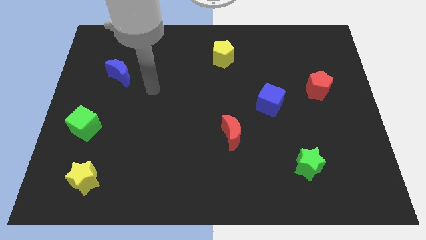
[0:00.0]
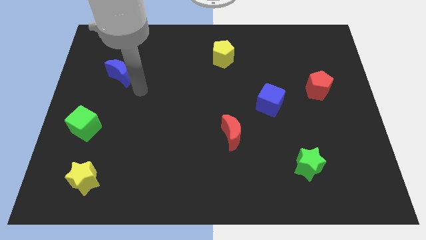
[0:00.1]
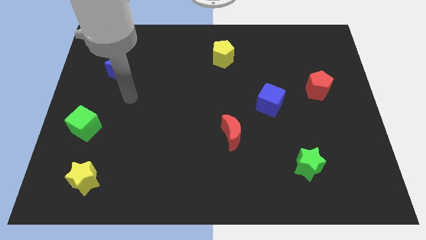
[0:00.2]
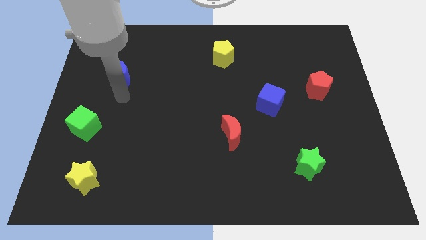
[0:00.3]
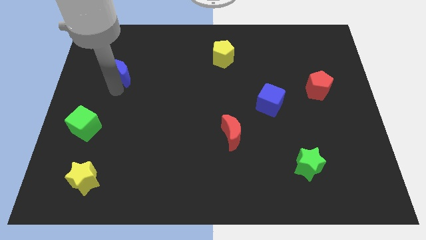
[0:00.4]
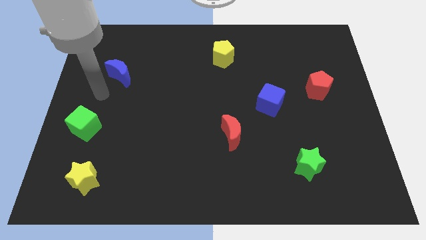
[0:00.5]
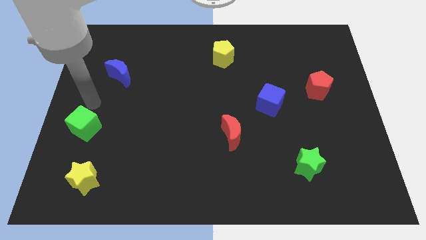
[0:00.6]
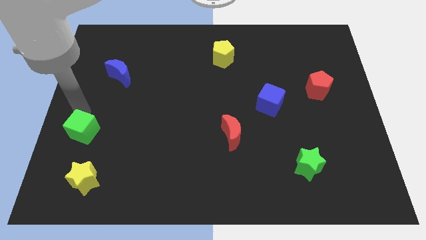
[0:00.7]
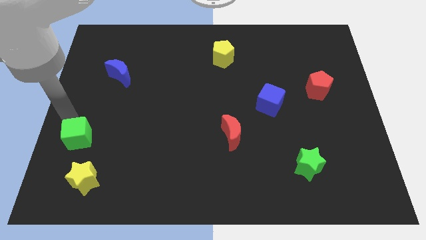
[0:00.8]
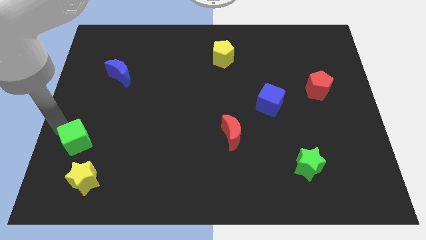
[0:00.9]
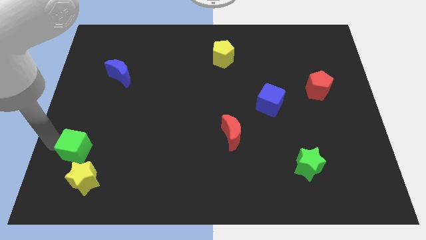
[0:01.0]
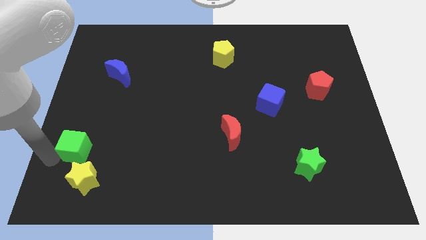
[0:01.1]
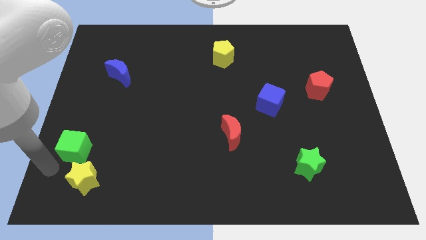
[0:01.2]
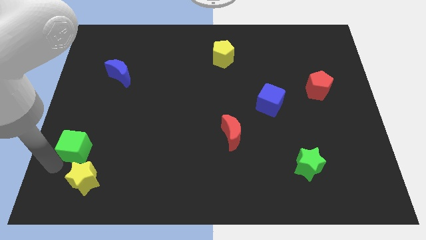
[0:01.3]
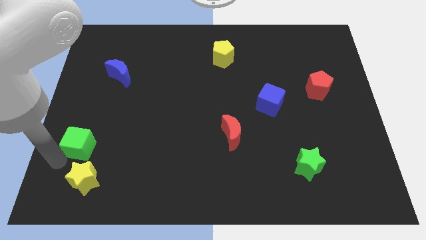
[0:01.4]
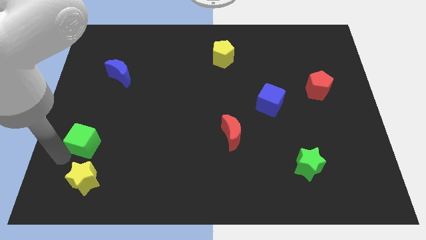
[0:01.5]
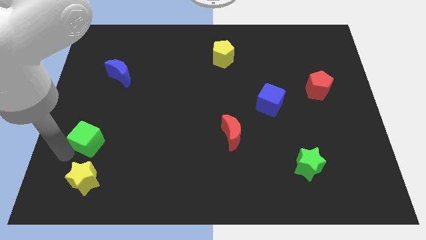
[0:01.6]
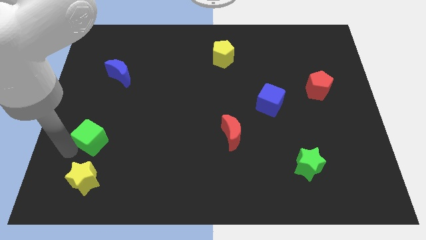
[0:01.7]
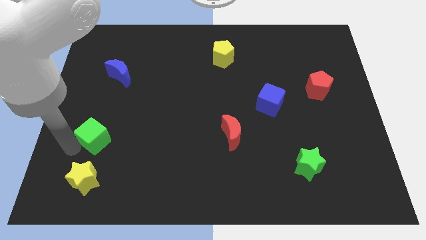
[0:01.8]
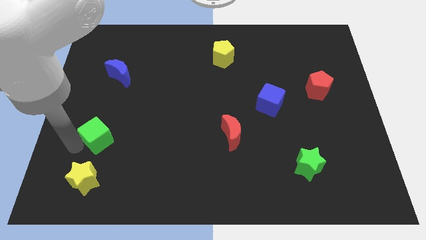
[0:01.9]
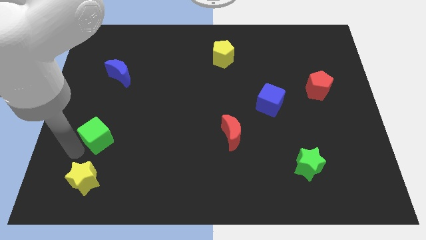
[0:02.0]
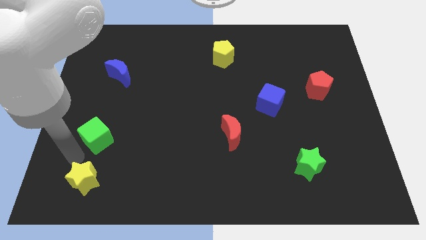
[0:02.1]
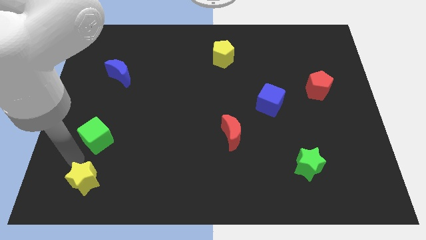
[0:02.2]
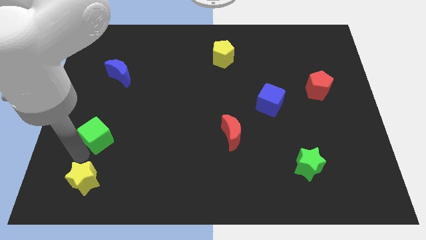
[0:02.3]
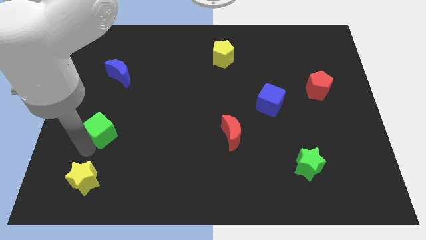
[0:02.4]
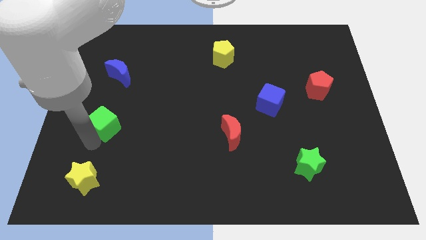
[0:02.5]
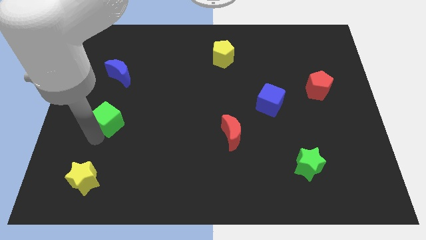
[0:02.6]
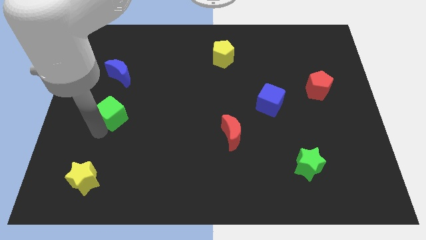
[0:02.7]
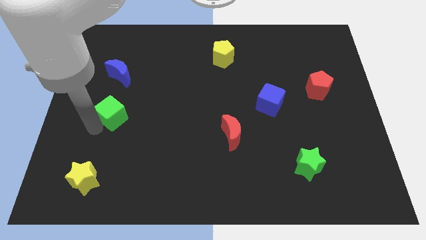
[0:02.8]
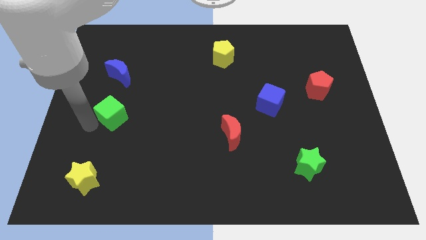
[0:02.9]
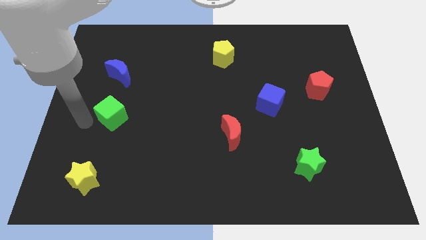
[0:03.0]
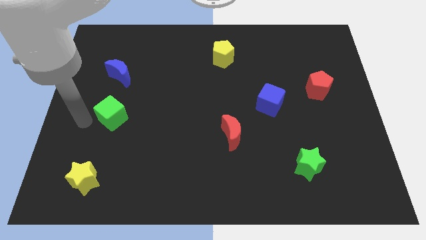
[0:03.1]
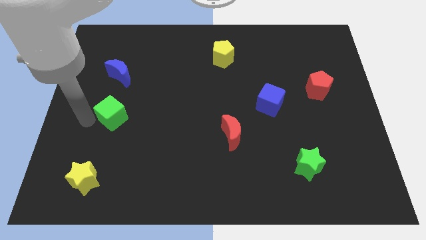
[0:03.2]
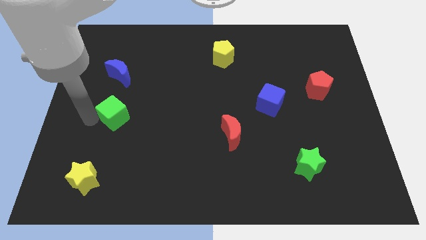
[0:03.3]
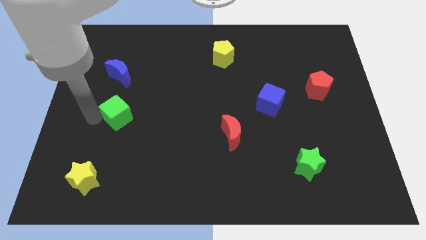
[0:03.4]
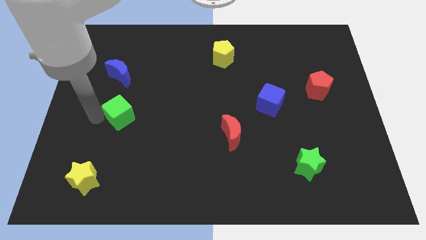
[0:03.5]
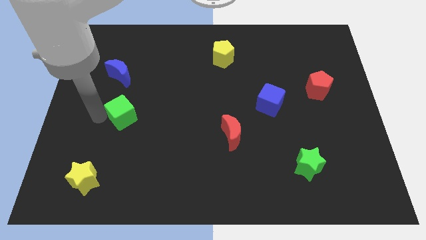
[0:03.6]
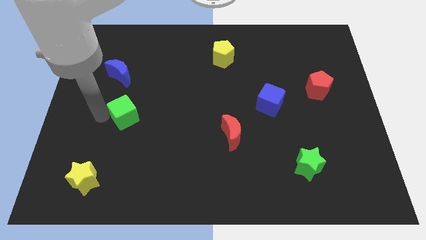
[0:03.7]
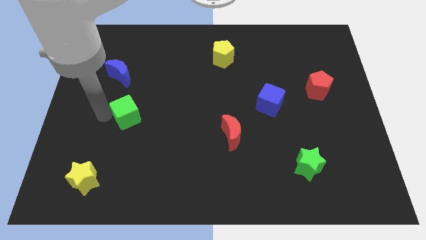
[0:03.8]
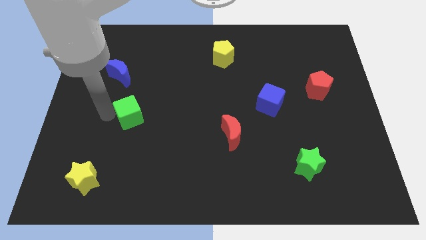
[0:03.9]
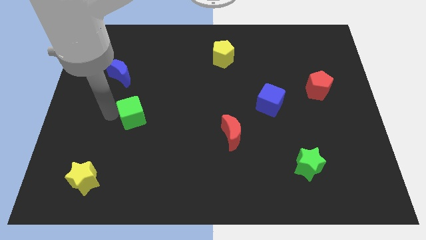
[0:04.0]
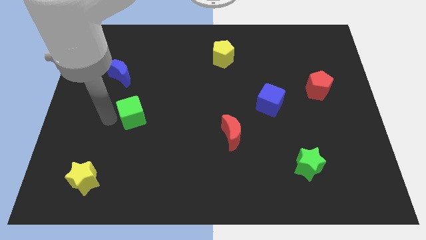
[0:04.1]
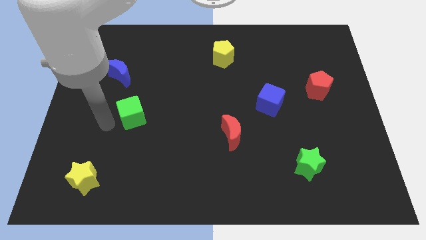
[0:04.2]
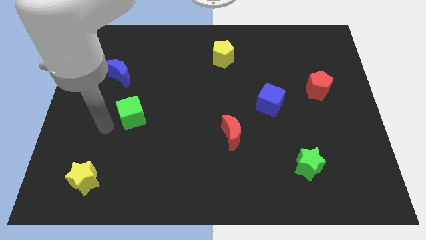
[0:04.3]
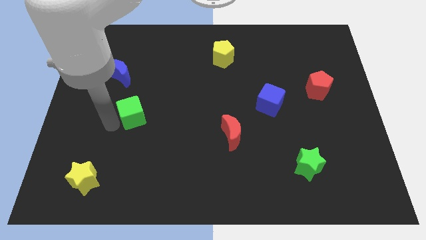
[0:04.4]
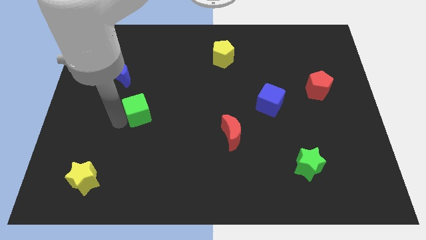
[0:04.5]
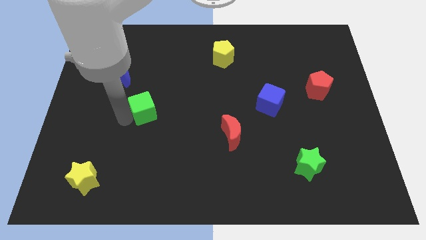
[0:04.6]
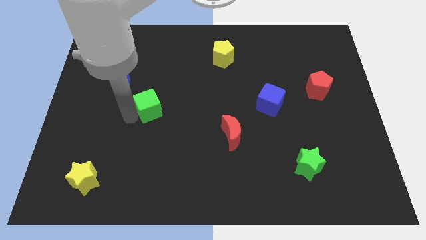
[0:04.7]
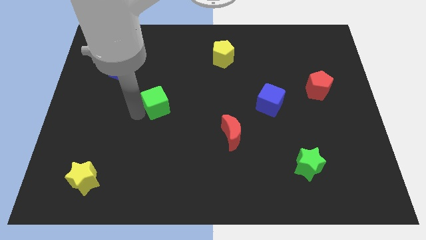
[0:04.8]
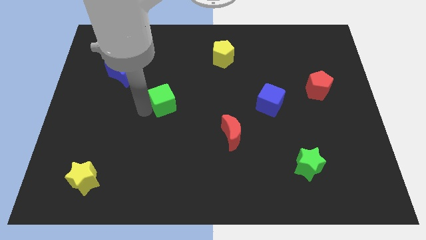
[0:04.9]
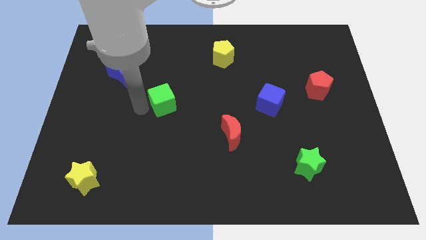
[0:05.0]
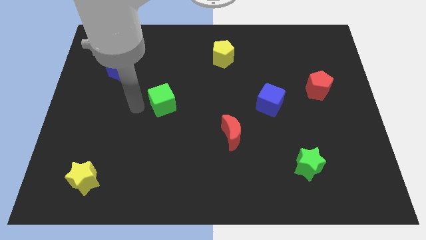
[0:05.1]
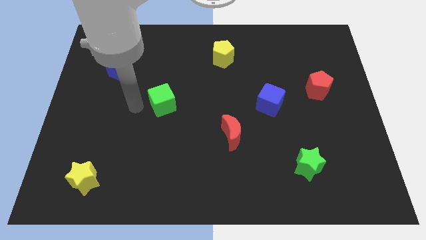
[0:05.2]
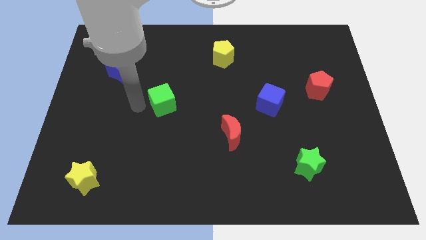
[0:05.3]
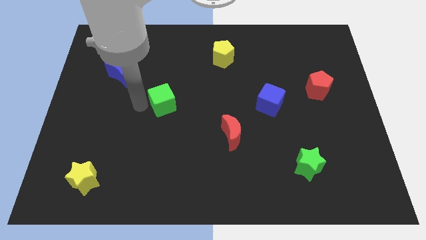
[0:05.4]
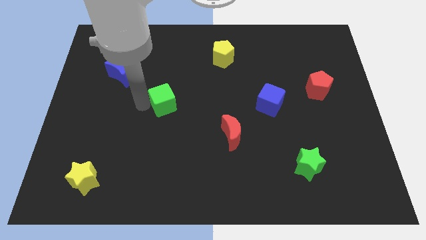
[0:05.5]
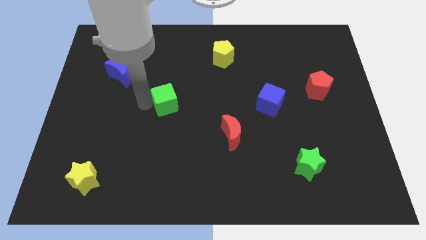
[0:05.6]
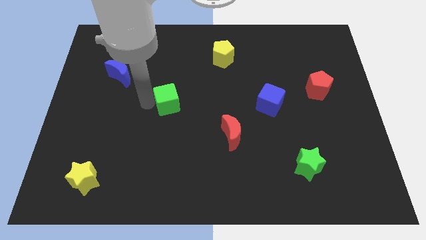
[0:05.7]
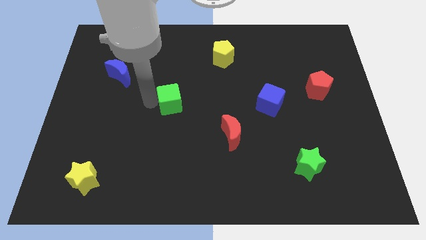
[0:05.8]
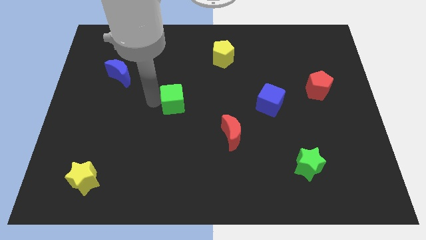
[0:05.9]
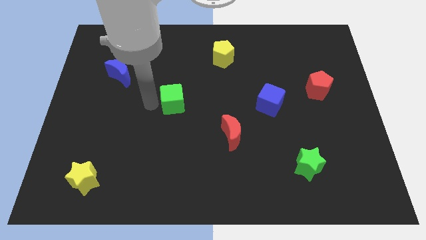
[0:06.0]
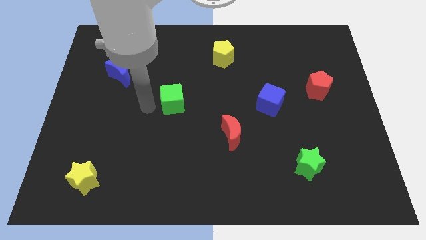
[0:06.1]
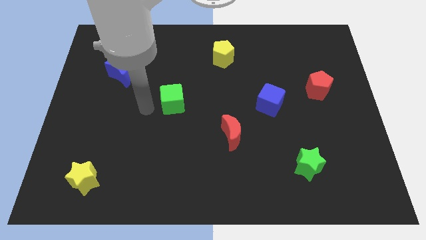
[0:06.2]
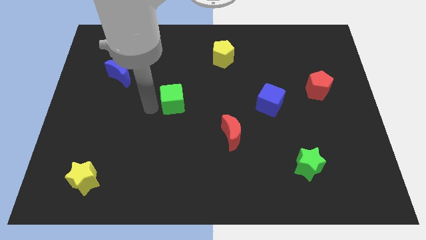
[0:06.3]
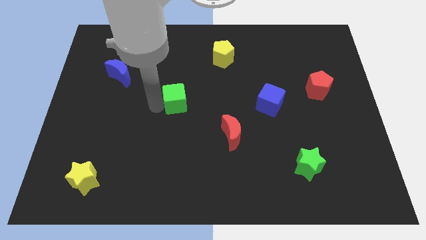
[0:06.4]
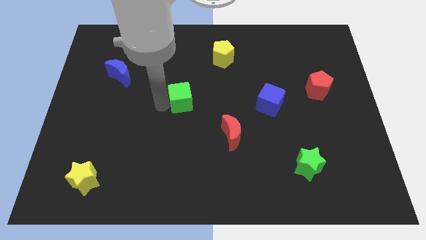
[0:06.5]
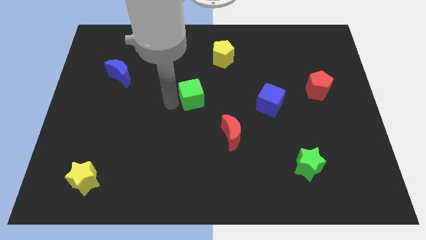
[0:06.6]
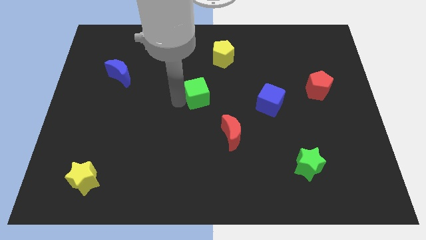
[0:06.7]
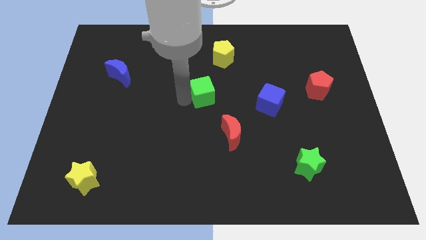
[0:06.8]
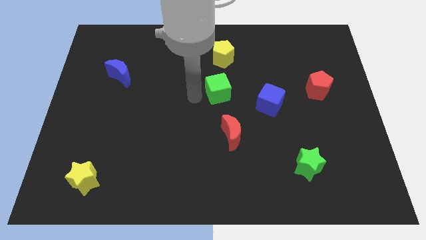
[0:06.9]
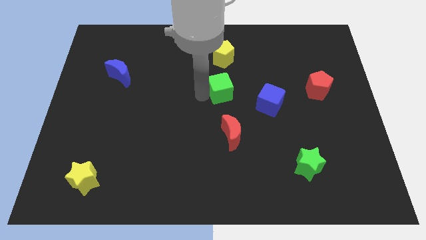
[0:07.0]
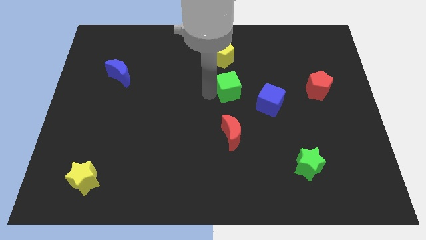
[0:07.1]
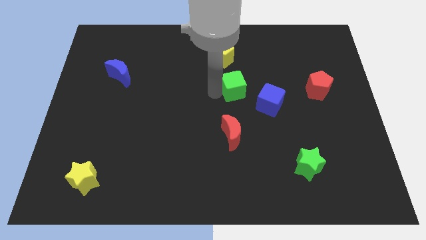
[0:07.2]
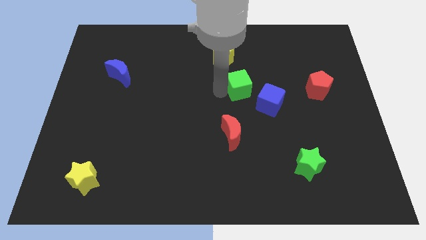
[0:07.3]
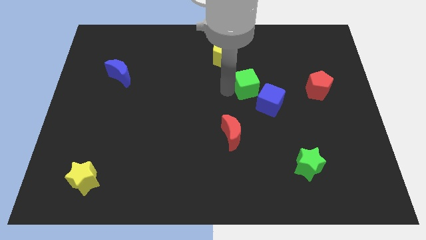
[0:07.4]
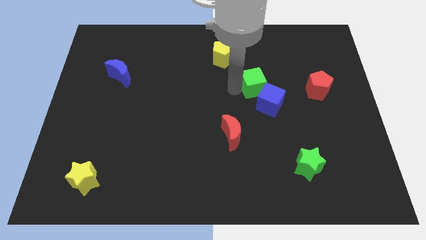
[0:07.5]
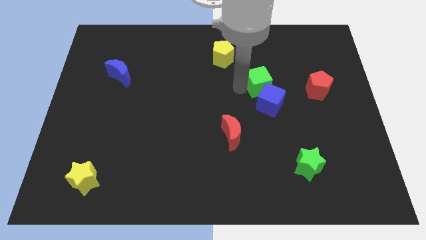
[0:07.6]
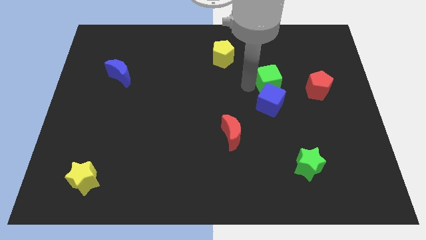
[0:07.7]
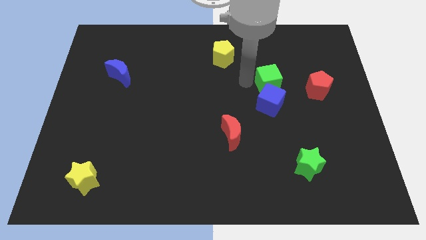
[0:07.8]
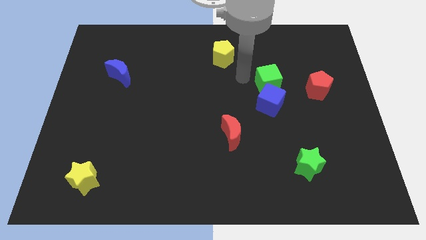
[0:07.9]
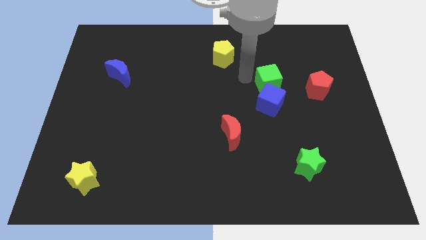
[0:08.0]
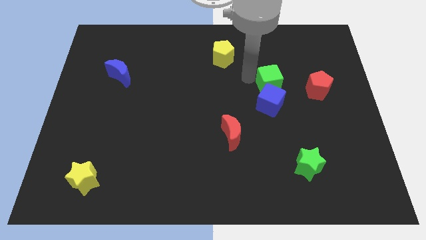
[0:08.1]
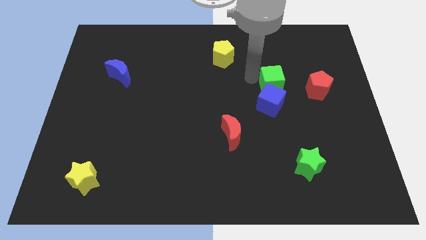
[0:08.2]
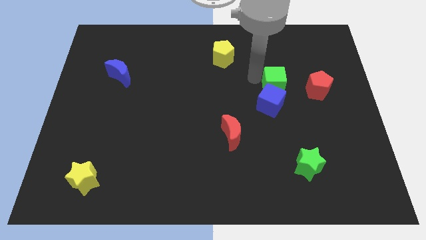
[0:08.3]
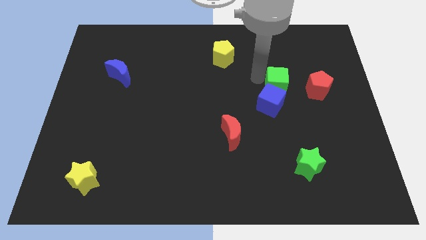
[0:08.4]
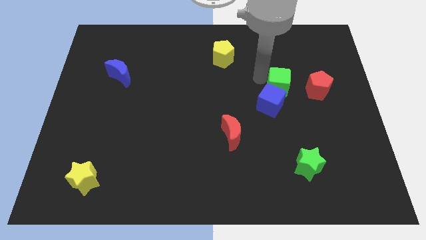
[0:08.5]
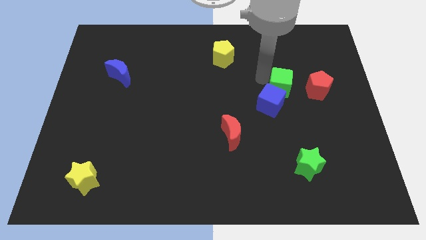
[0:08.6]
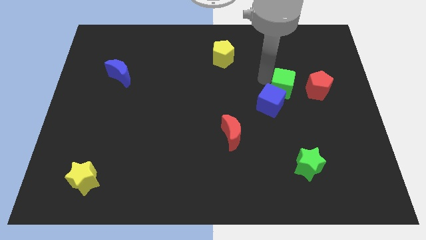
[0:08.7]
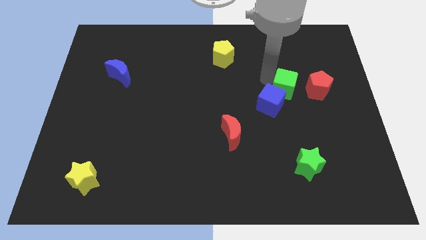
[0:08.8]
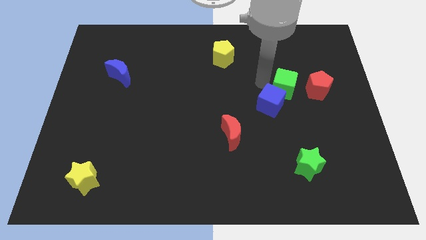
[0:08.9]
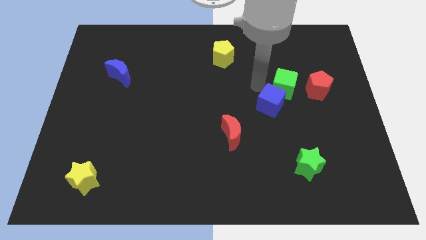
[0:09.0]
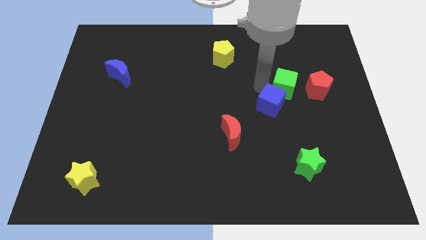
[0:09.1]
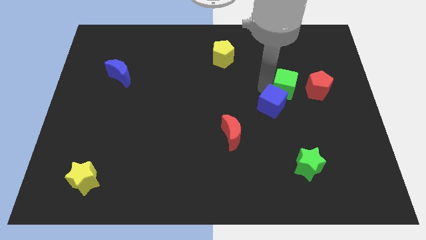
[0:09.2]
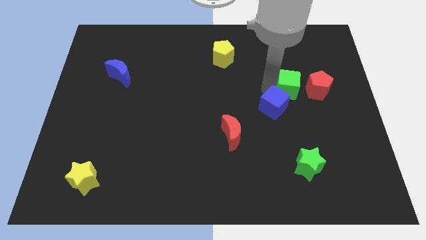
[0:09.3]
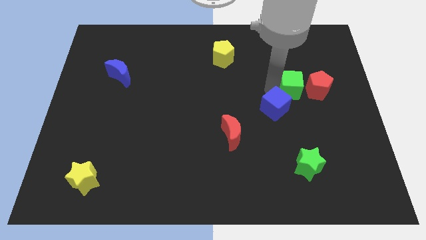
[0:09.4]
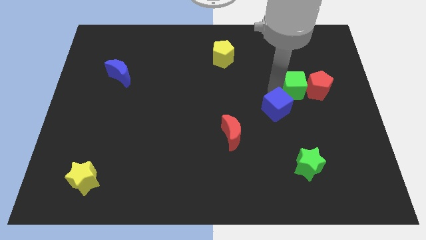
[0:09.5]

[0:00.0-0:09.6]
put the green cube close to the red pentagon
